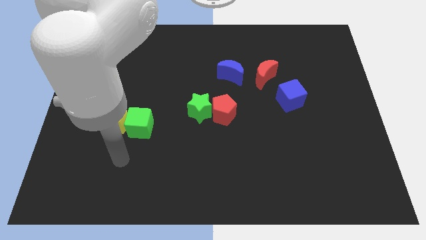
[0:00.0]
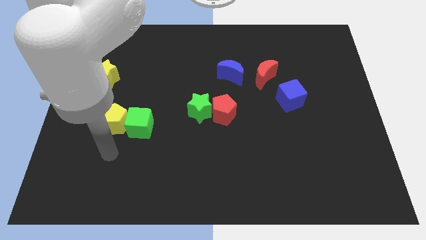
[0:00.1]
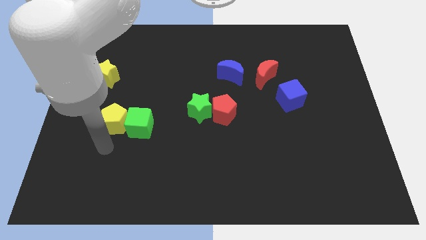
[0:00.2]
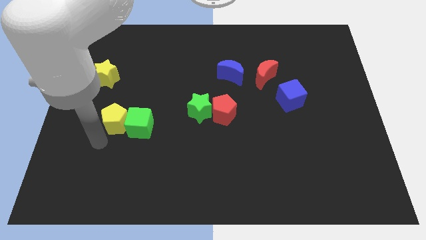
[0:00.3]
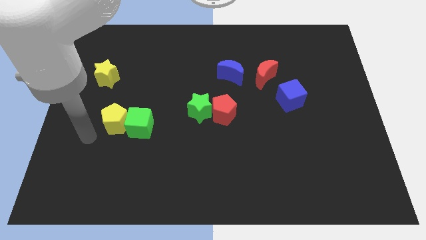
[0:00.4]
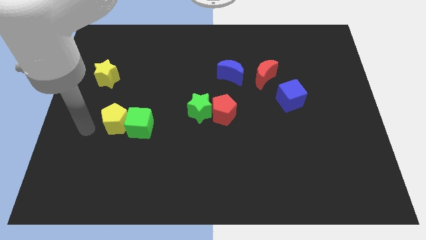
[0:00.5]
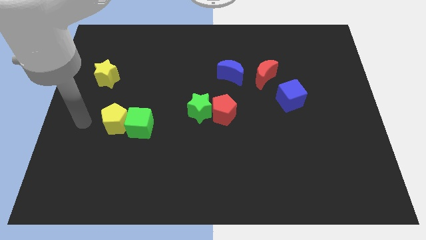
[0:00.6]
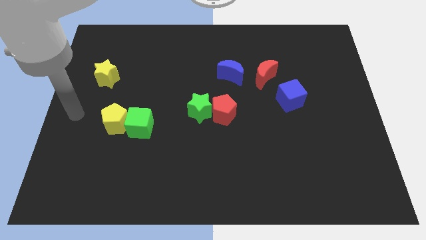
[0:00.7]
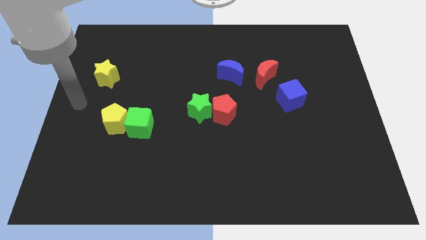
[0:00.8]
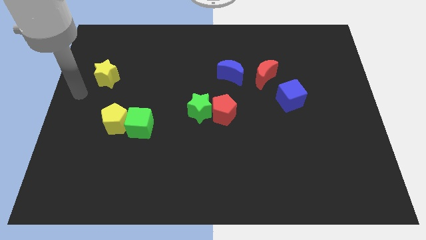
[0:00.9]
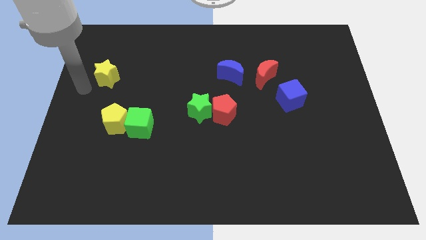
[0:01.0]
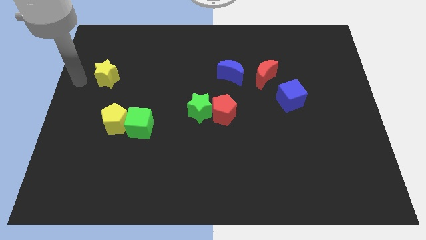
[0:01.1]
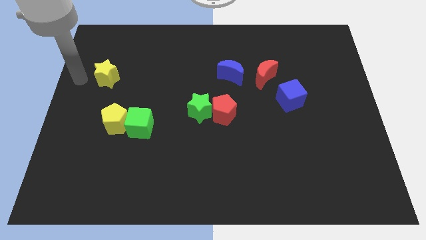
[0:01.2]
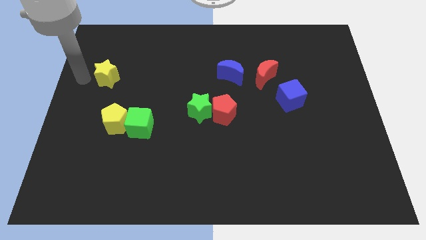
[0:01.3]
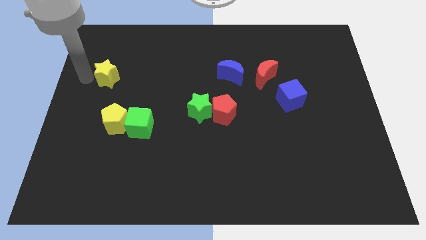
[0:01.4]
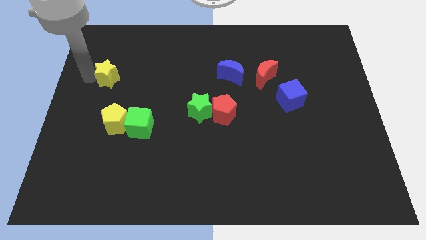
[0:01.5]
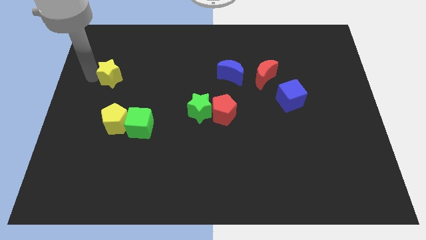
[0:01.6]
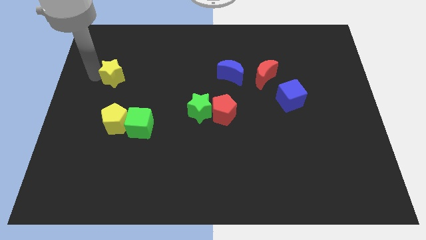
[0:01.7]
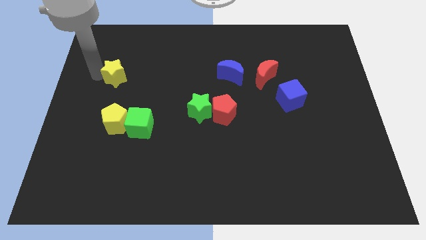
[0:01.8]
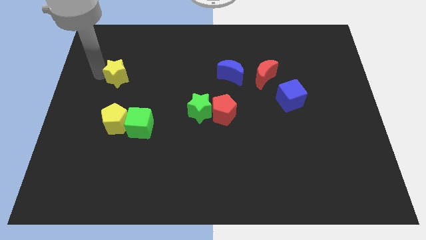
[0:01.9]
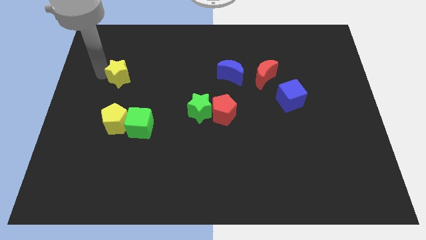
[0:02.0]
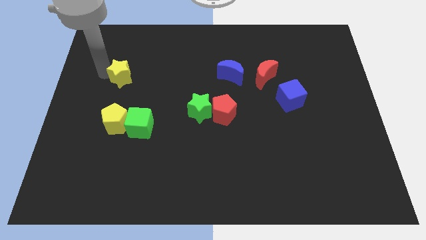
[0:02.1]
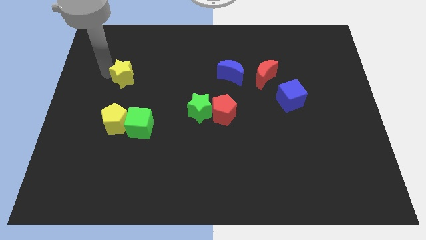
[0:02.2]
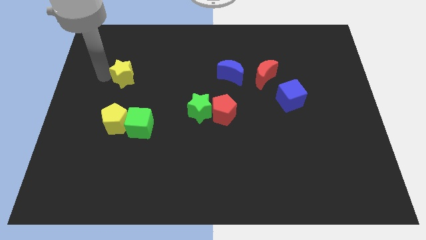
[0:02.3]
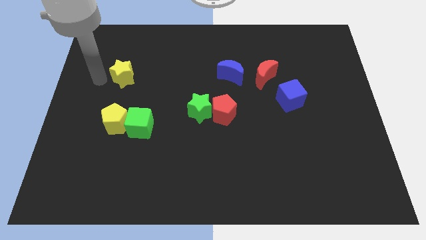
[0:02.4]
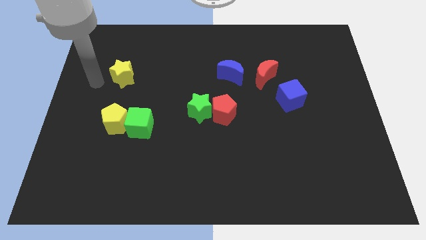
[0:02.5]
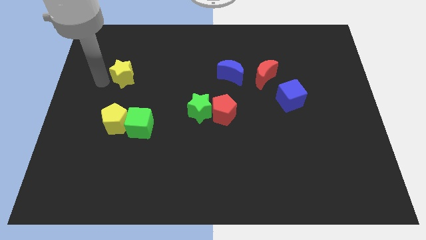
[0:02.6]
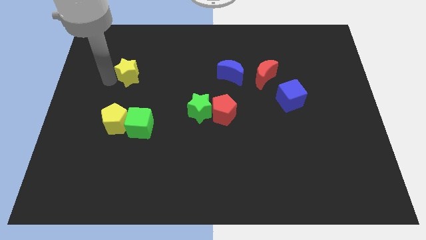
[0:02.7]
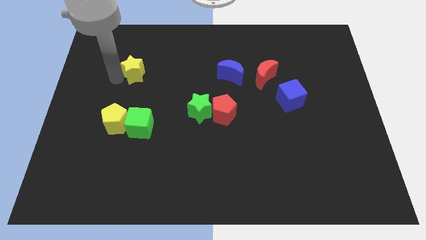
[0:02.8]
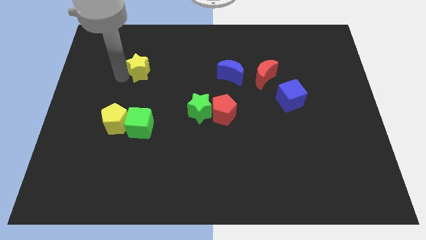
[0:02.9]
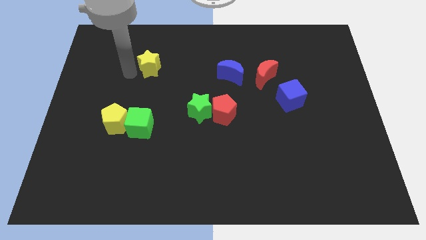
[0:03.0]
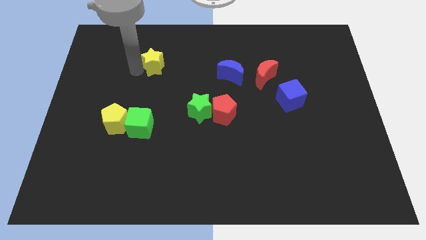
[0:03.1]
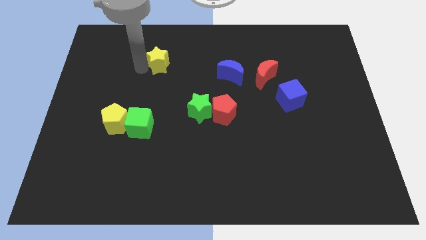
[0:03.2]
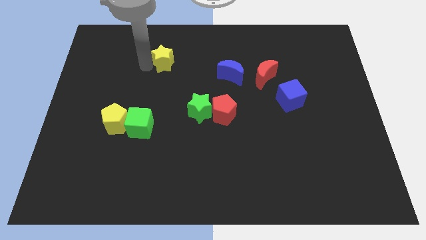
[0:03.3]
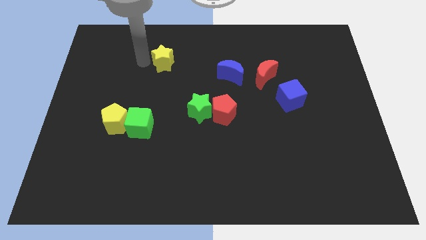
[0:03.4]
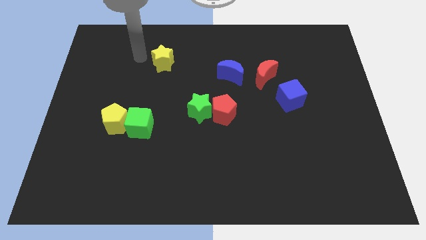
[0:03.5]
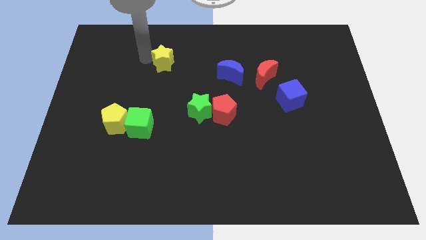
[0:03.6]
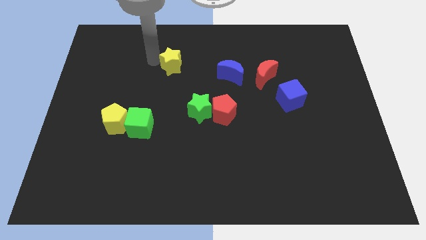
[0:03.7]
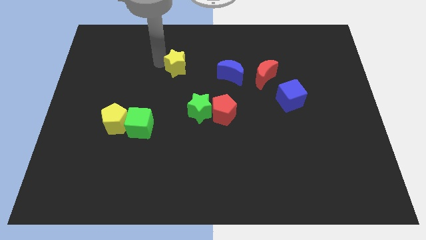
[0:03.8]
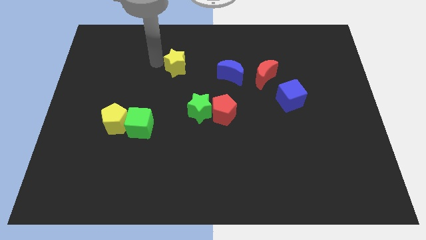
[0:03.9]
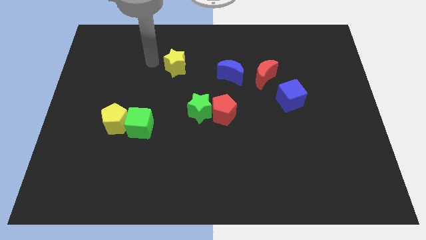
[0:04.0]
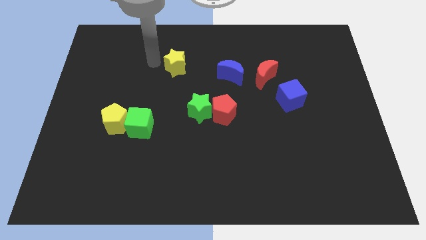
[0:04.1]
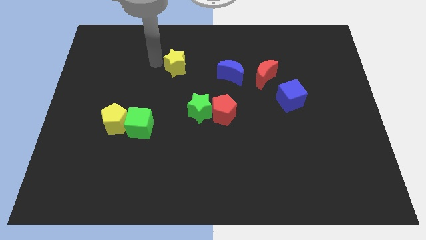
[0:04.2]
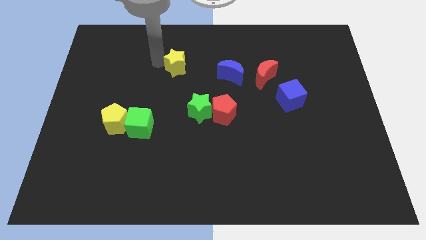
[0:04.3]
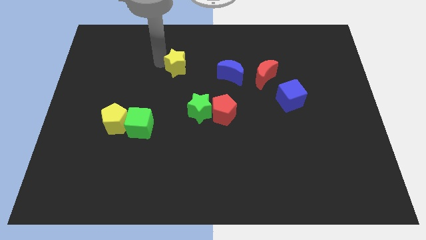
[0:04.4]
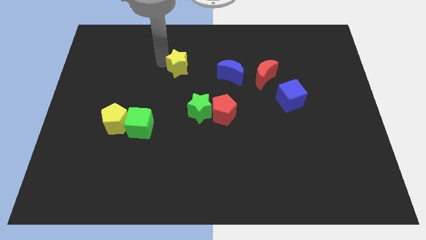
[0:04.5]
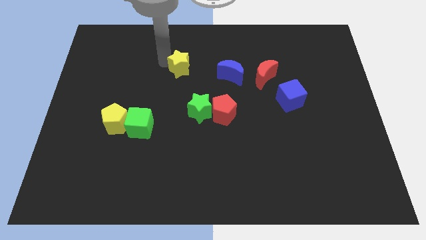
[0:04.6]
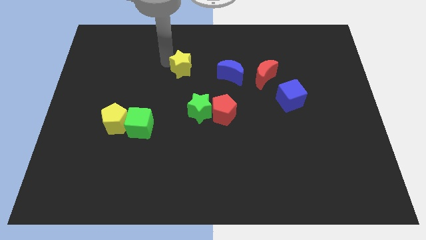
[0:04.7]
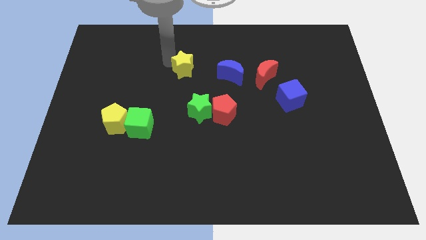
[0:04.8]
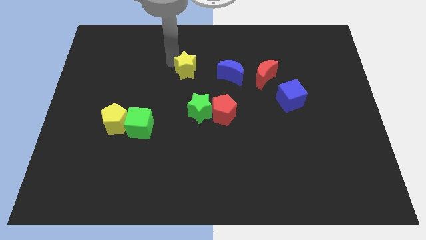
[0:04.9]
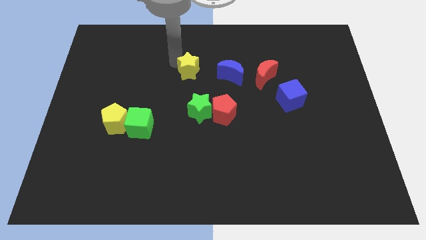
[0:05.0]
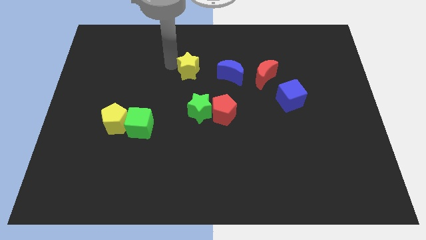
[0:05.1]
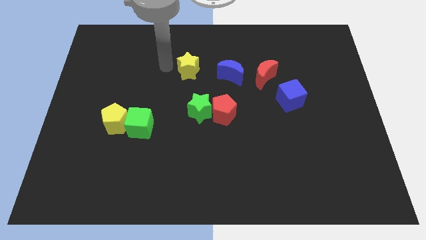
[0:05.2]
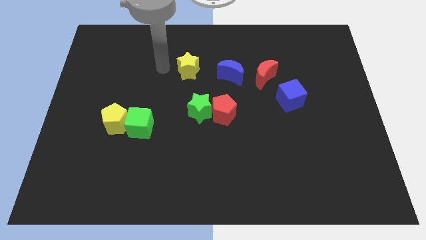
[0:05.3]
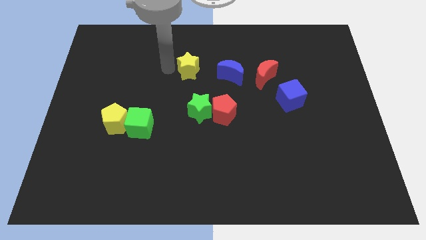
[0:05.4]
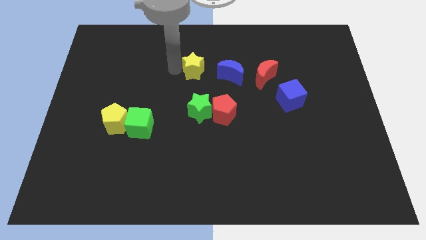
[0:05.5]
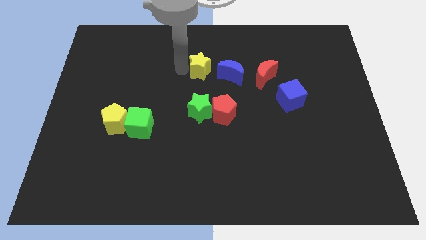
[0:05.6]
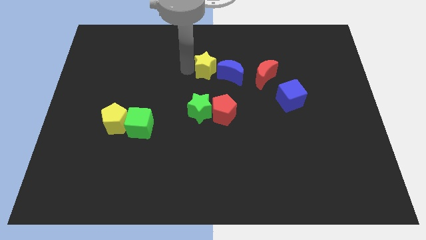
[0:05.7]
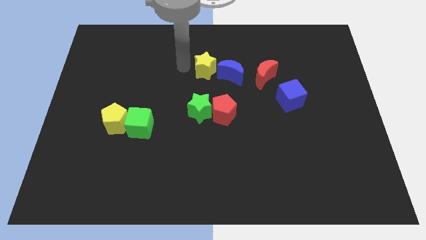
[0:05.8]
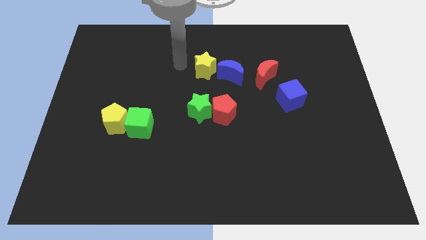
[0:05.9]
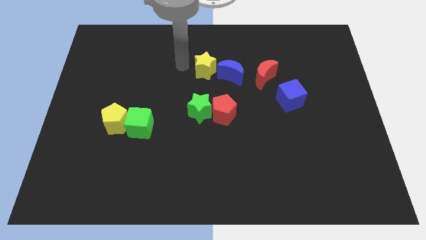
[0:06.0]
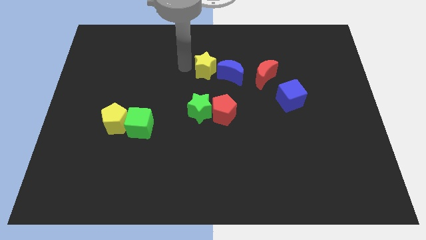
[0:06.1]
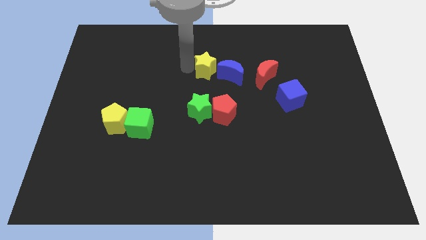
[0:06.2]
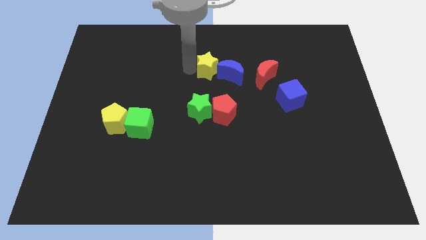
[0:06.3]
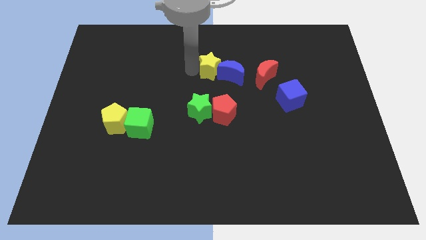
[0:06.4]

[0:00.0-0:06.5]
slide the yellow star towards the blue moon

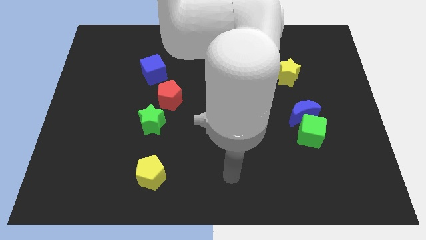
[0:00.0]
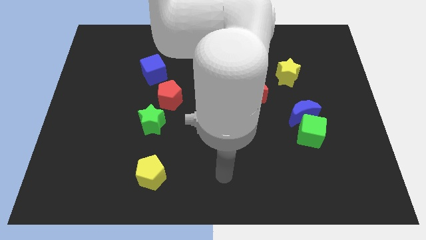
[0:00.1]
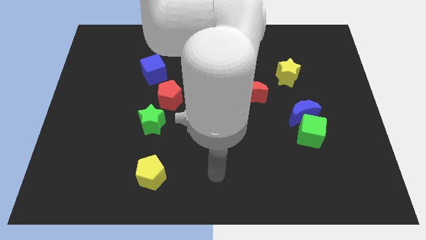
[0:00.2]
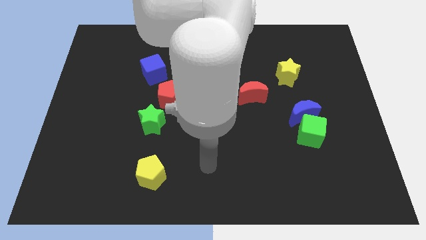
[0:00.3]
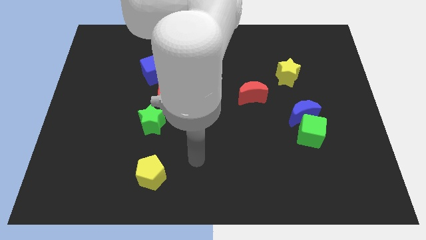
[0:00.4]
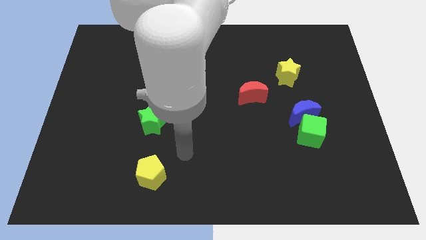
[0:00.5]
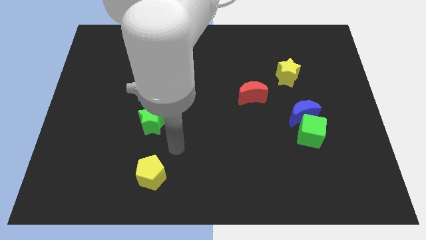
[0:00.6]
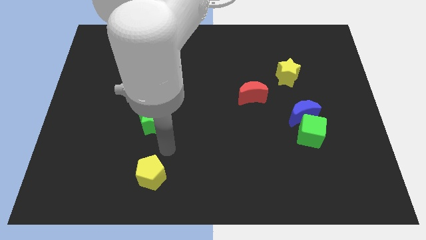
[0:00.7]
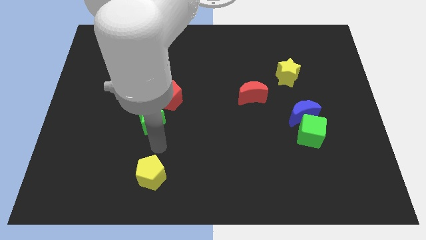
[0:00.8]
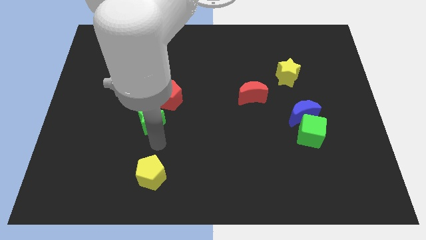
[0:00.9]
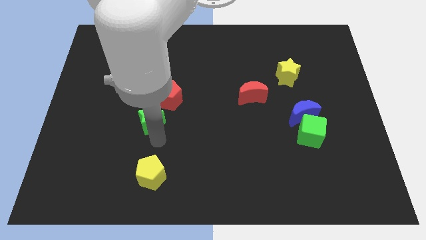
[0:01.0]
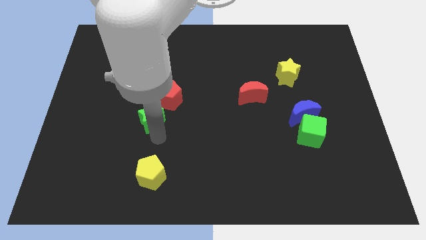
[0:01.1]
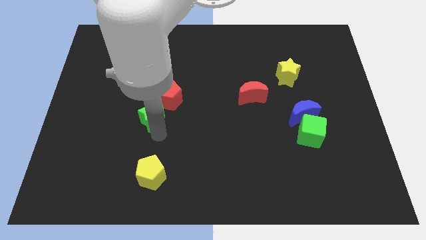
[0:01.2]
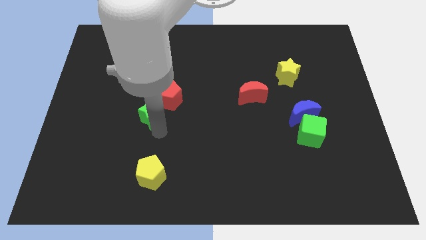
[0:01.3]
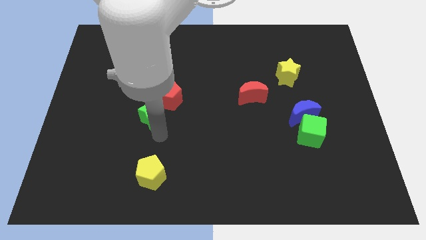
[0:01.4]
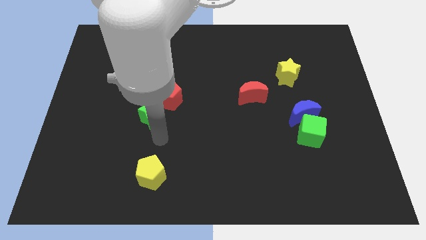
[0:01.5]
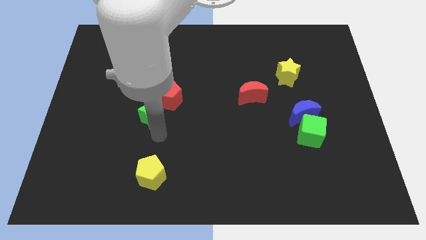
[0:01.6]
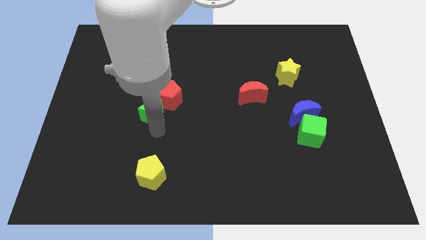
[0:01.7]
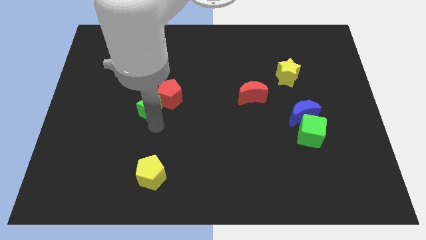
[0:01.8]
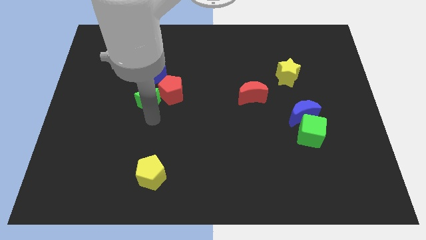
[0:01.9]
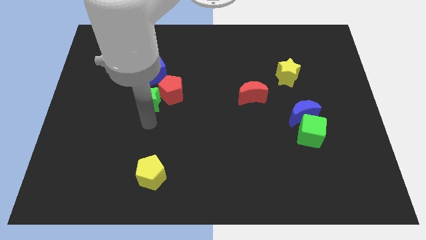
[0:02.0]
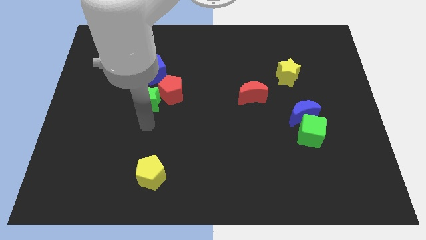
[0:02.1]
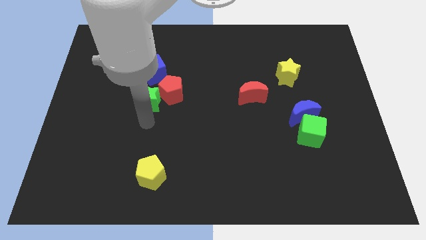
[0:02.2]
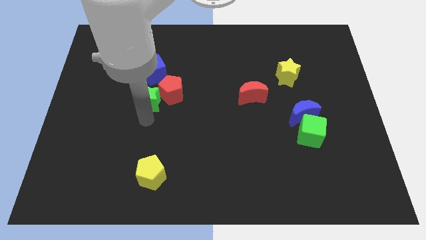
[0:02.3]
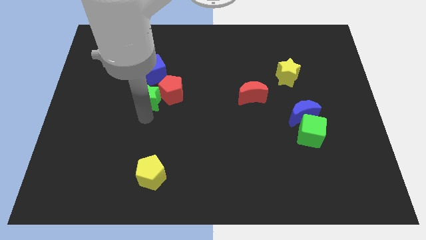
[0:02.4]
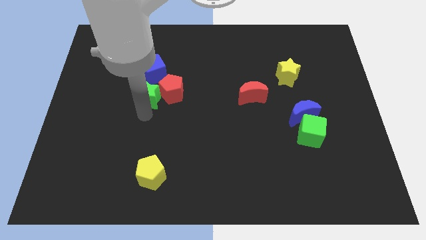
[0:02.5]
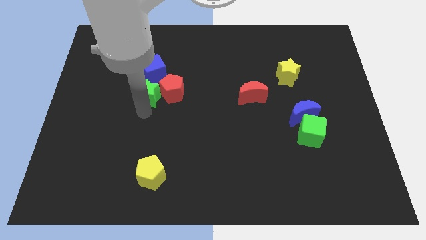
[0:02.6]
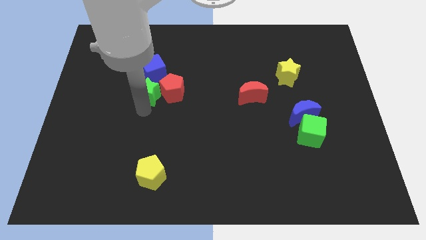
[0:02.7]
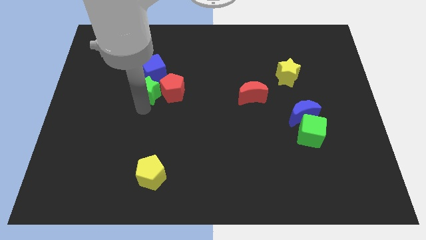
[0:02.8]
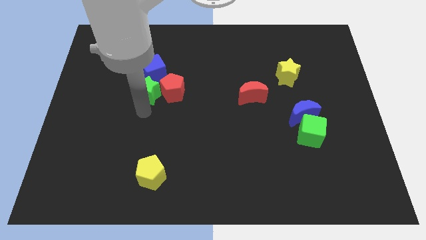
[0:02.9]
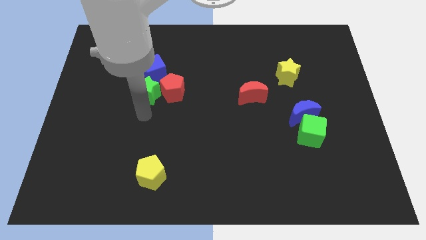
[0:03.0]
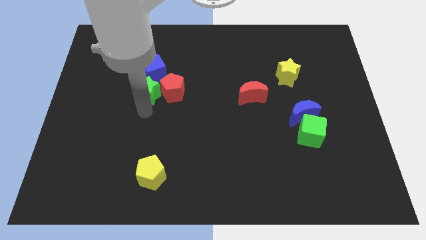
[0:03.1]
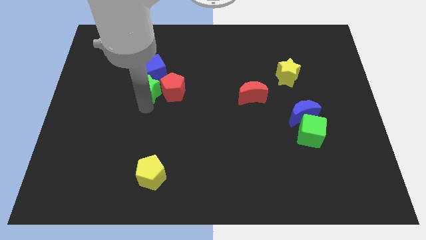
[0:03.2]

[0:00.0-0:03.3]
move the green star close to the blue cube
